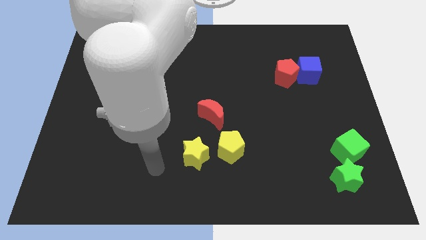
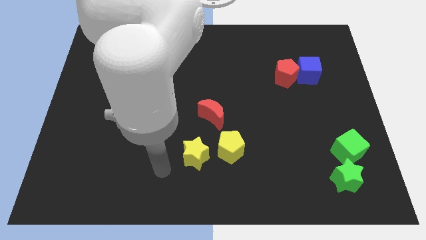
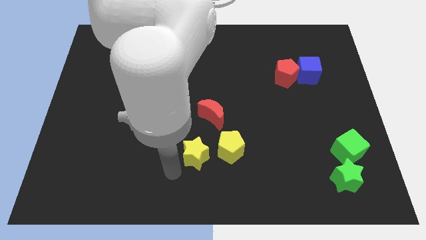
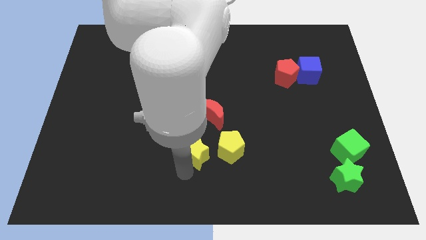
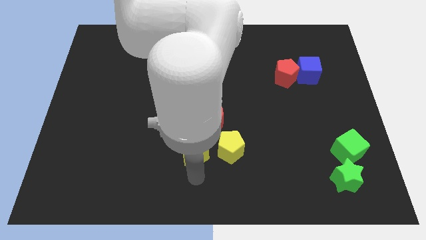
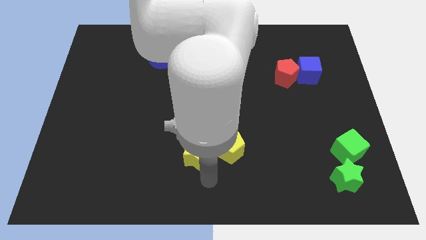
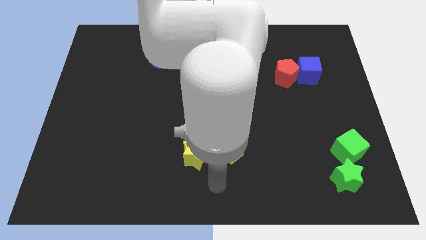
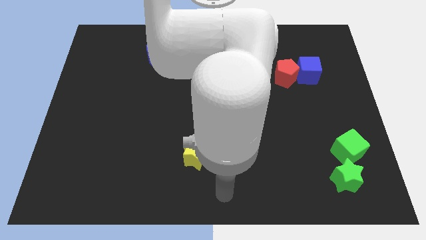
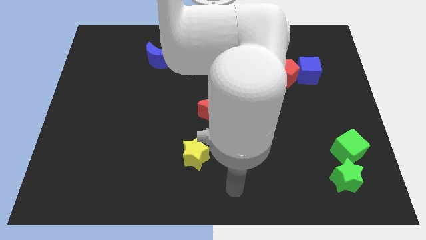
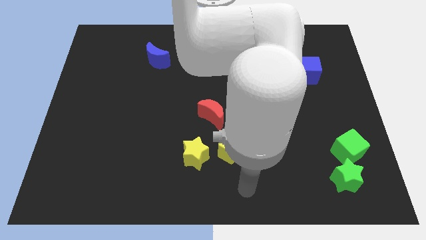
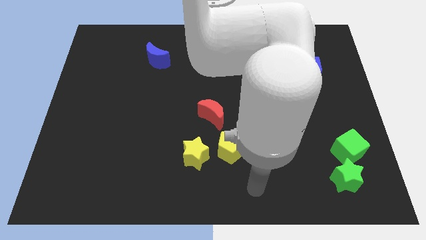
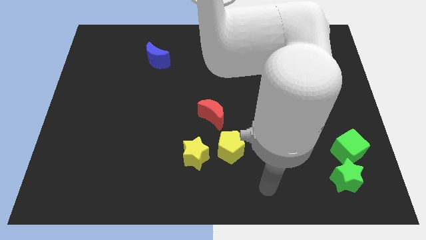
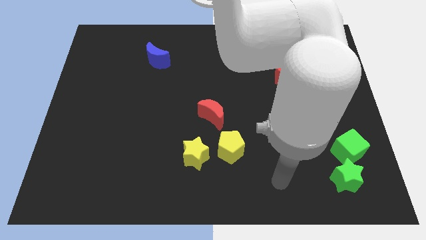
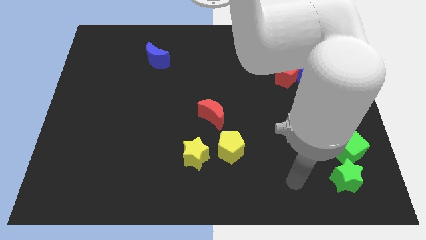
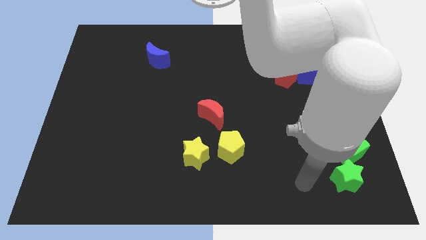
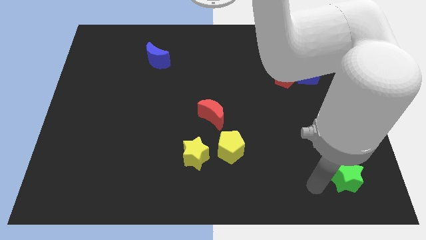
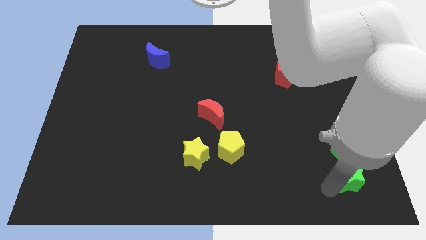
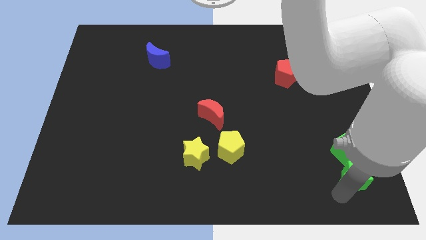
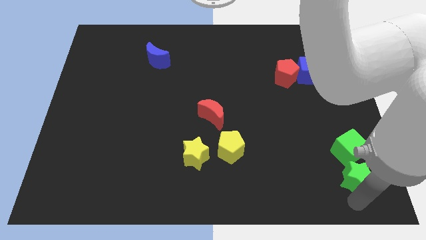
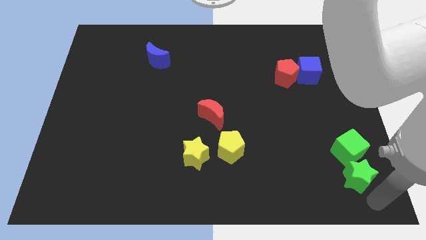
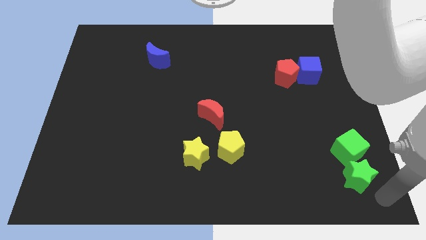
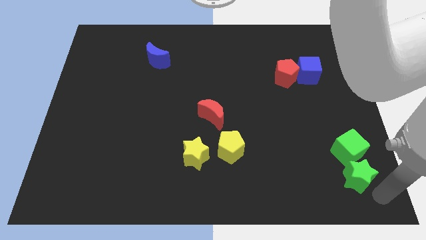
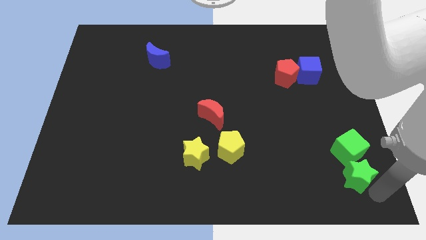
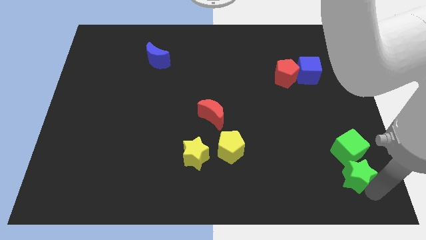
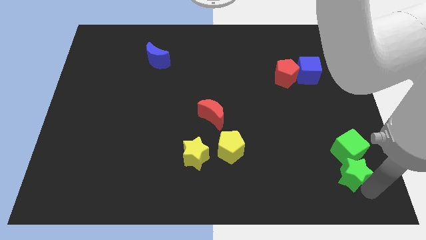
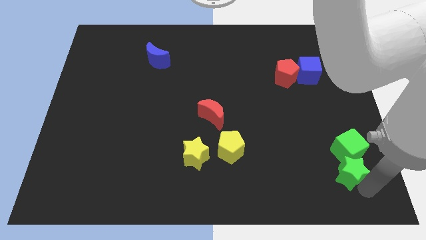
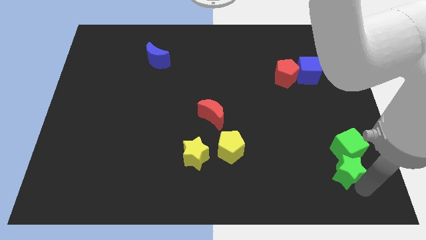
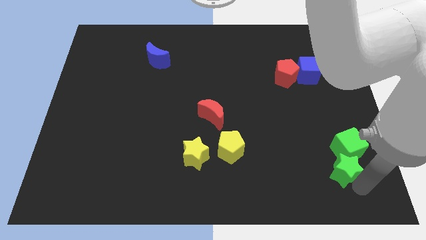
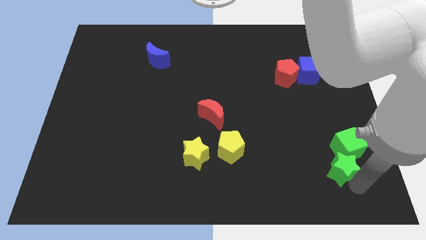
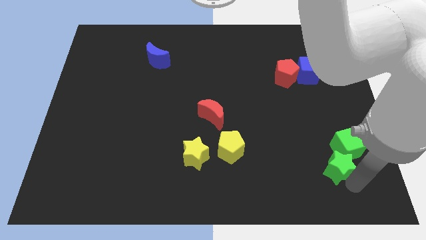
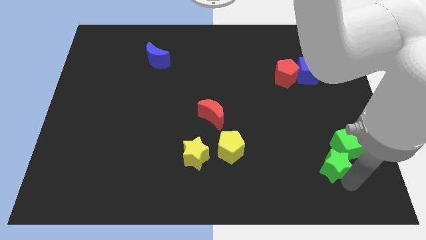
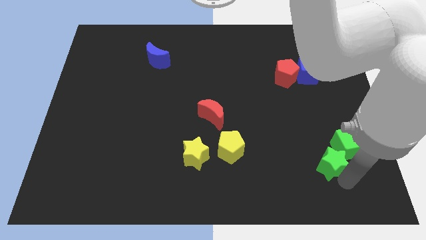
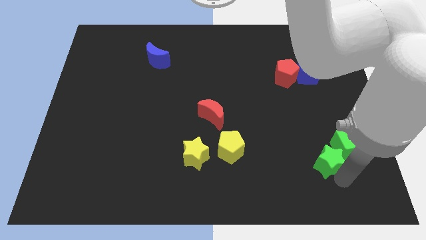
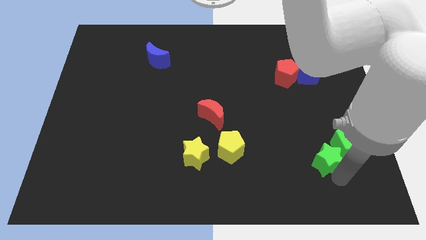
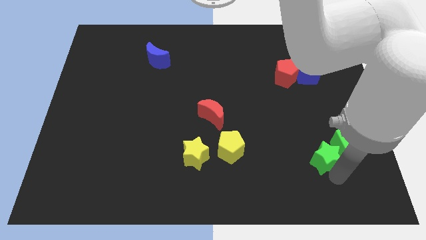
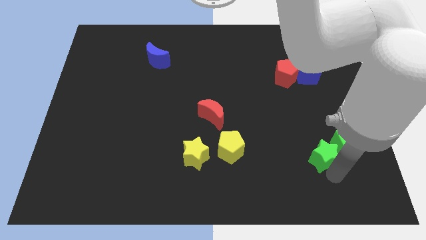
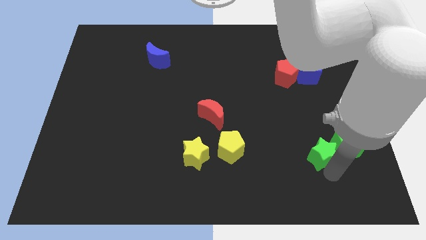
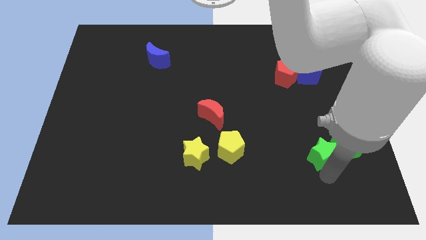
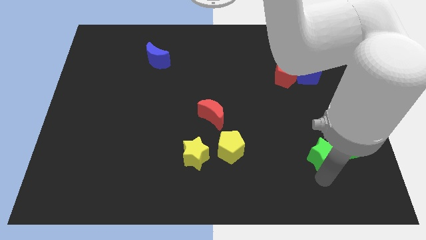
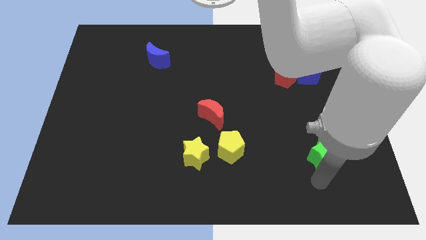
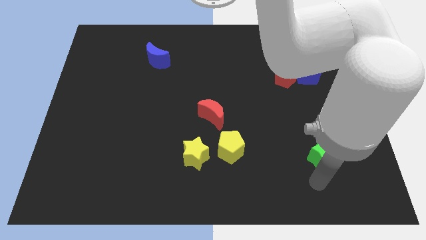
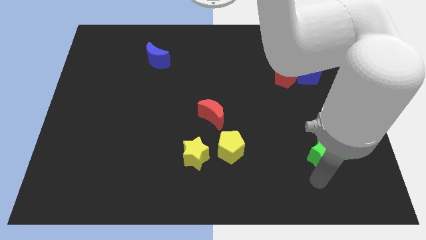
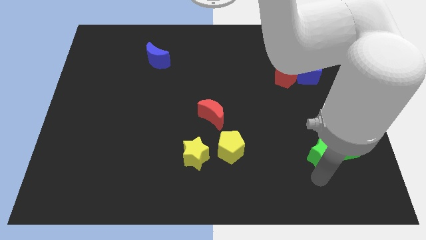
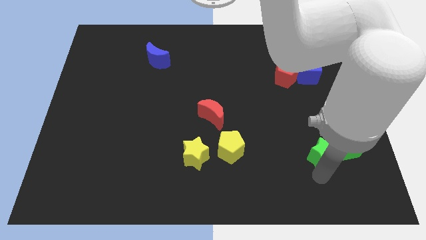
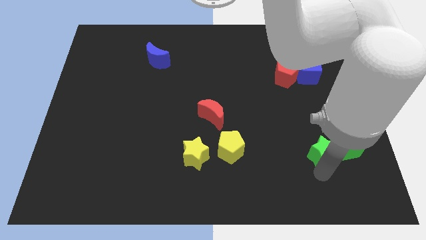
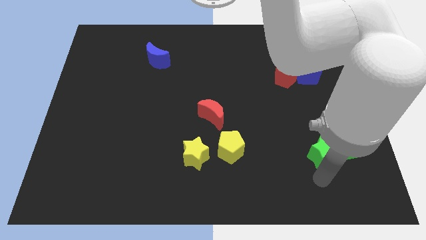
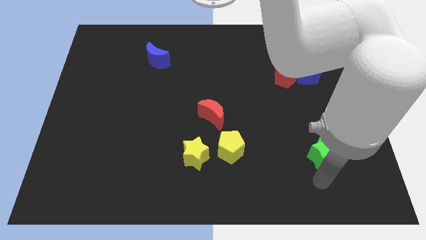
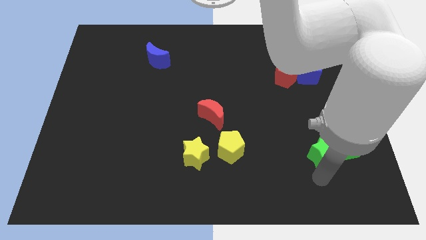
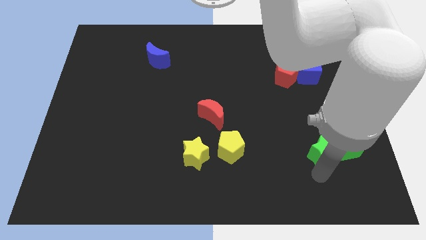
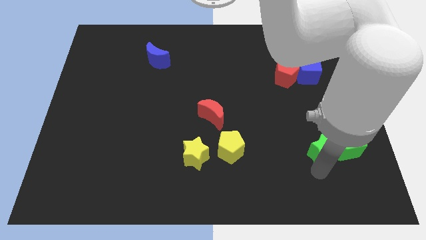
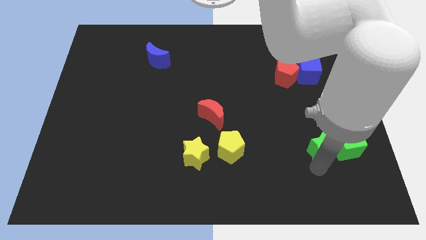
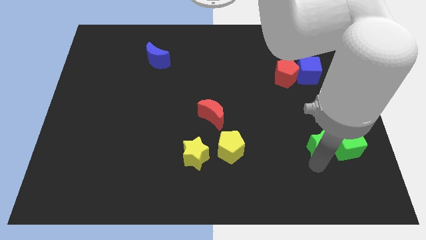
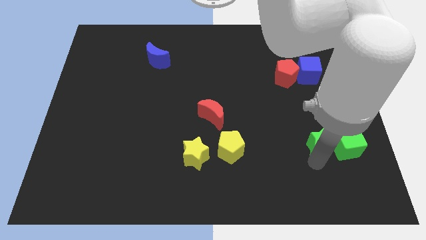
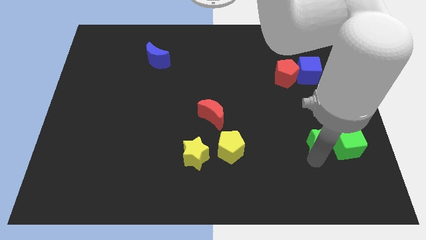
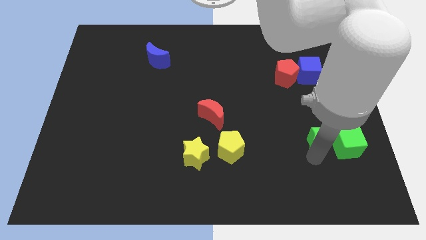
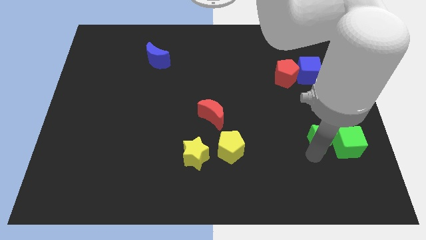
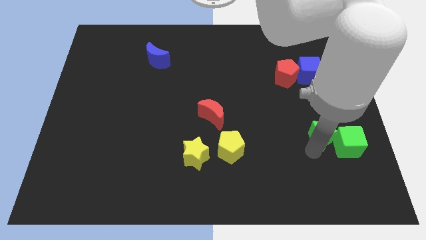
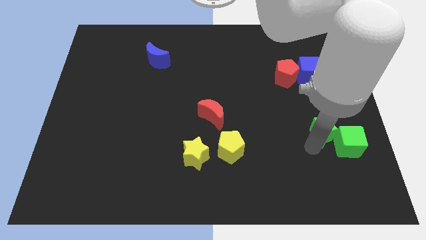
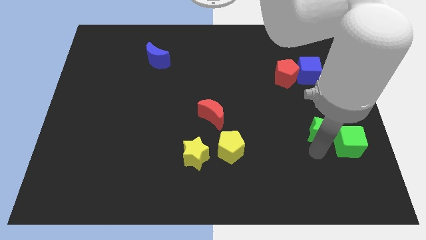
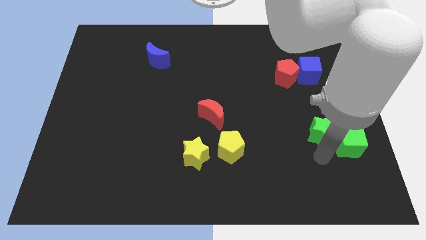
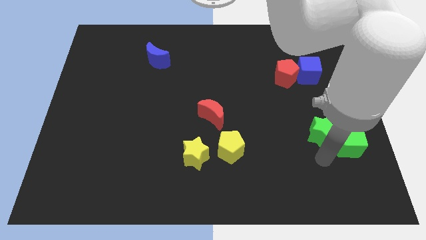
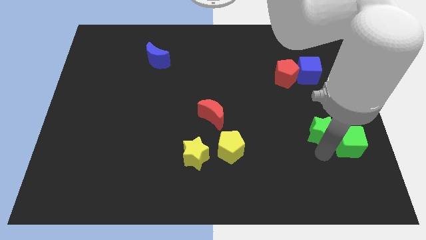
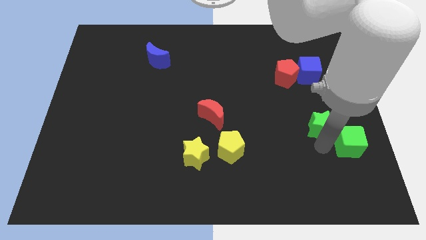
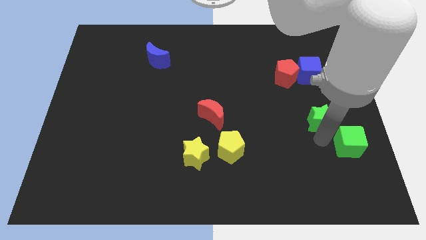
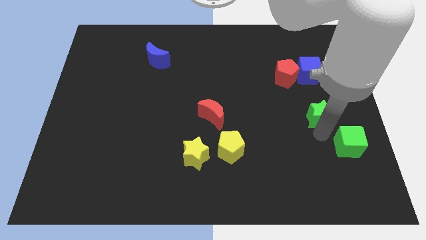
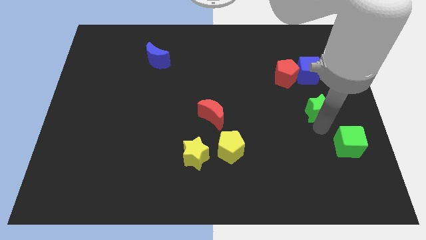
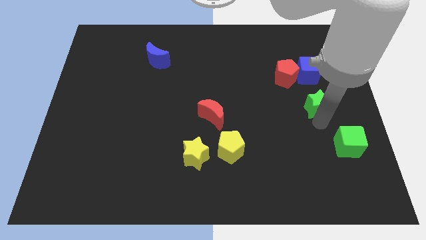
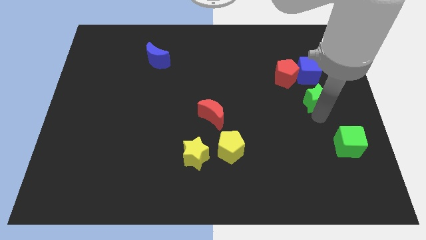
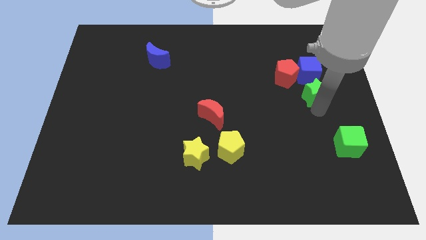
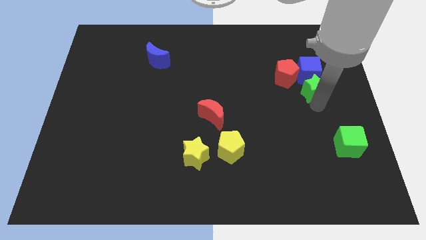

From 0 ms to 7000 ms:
slide the green star towards the blue cube
